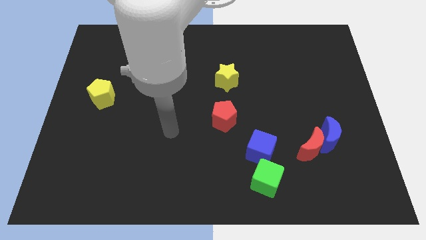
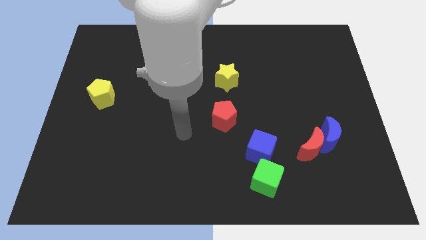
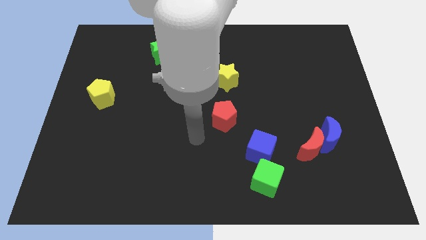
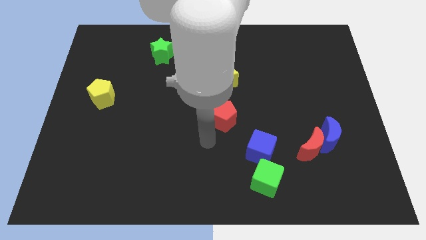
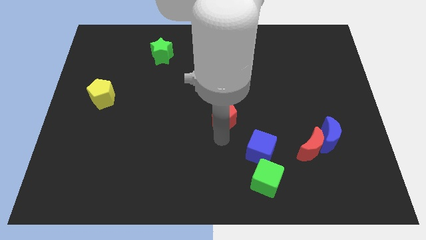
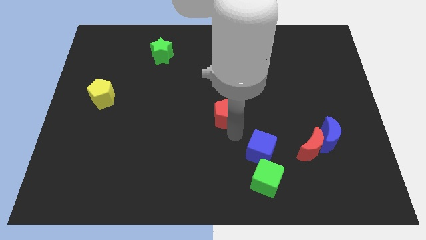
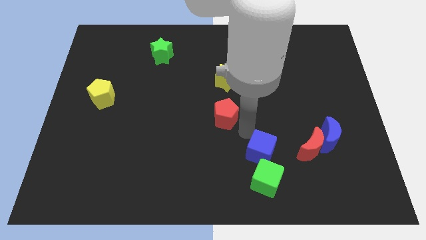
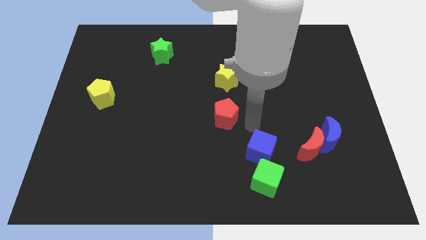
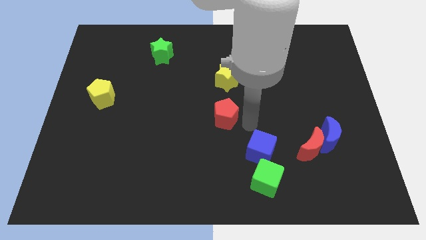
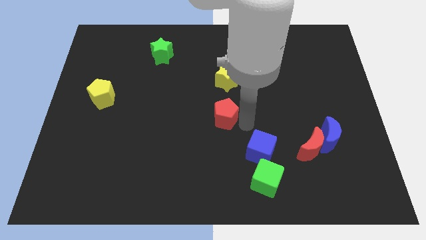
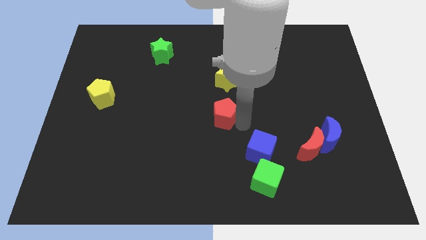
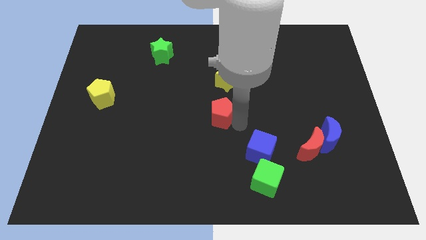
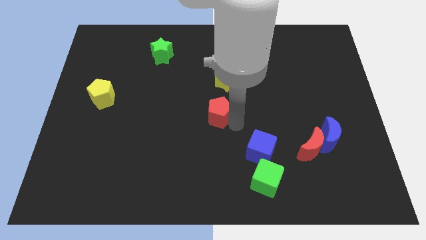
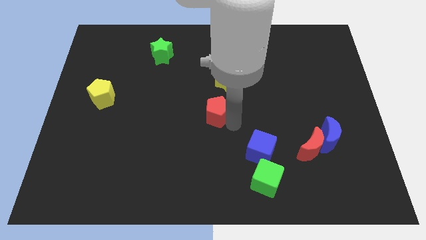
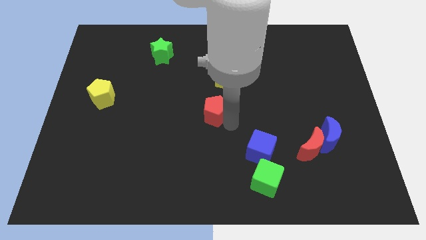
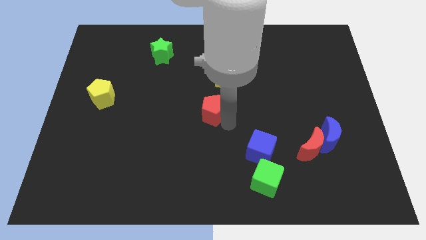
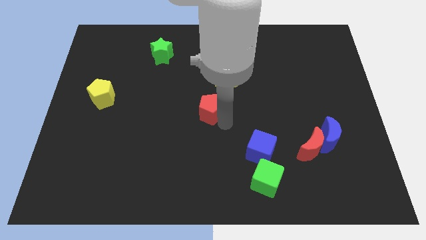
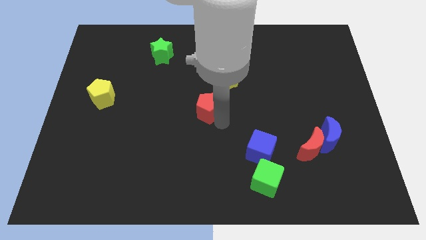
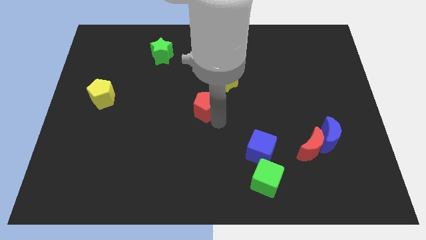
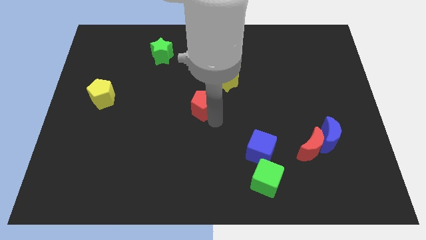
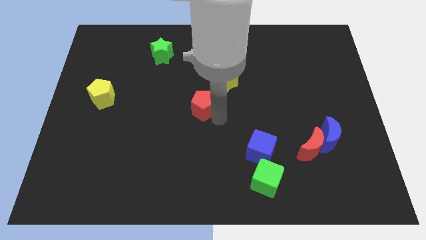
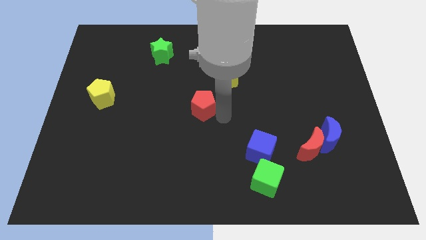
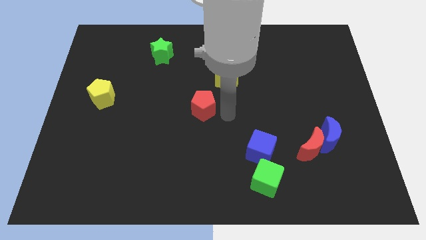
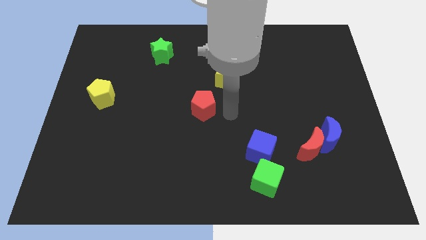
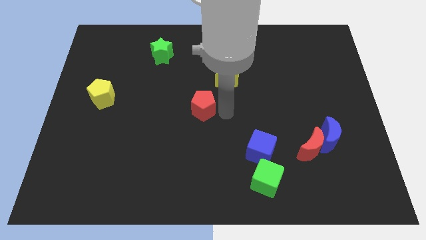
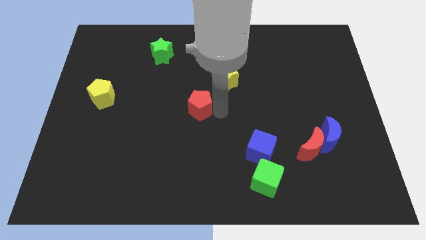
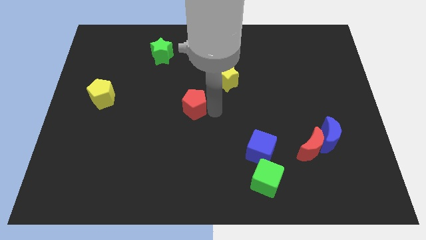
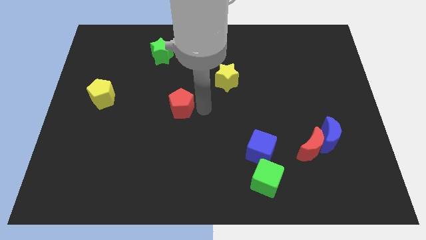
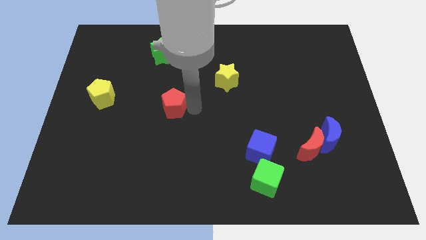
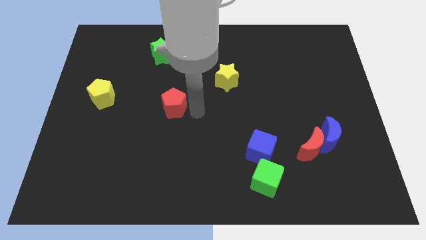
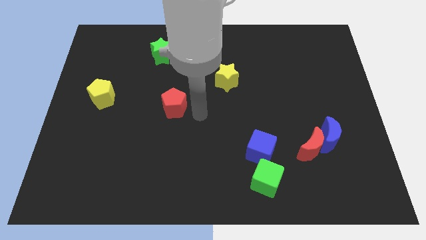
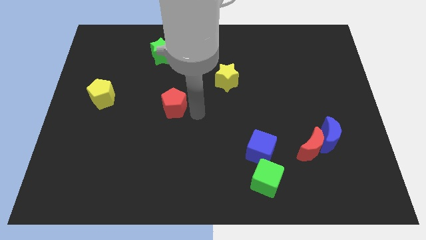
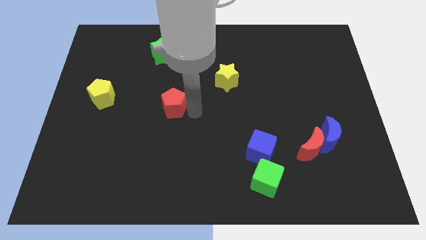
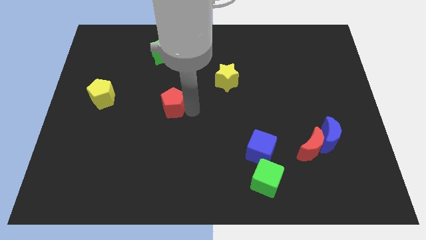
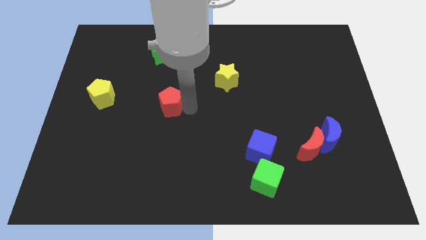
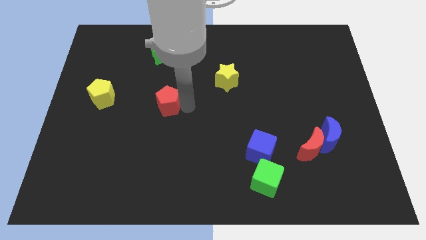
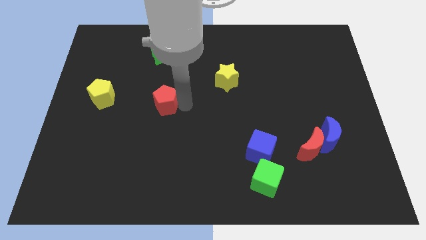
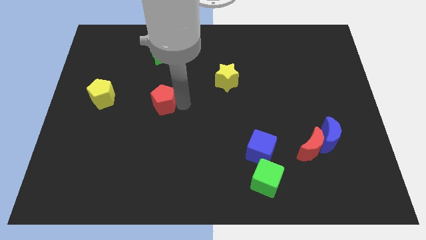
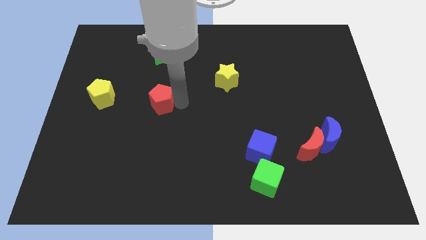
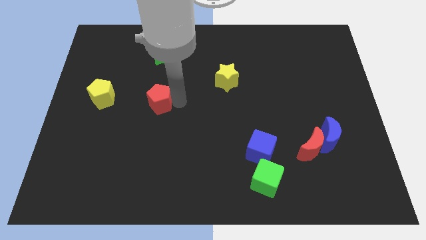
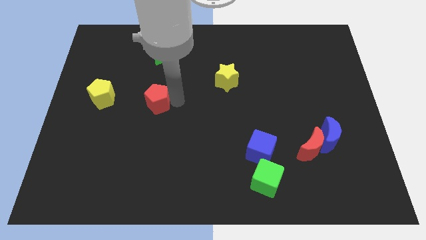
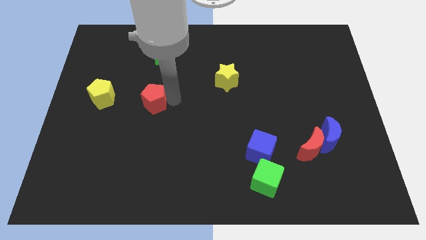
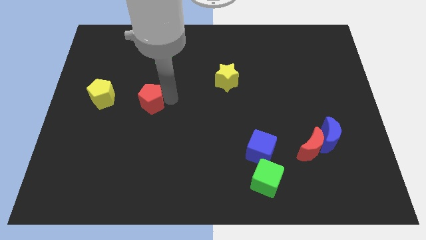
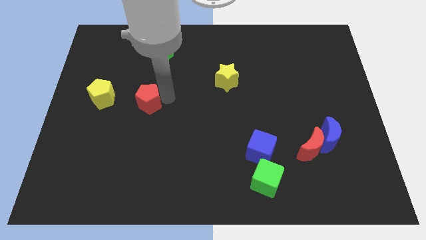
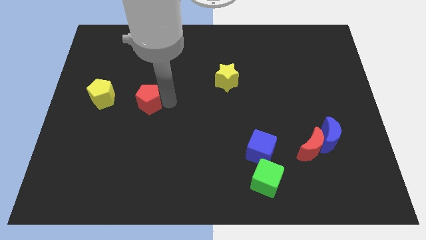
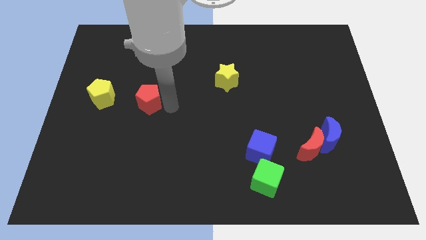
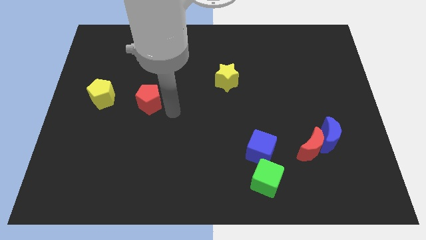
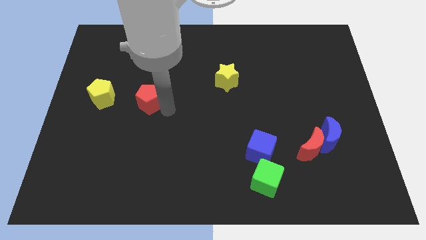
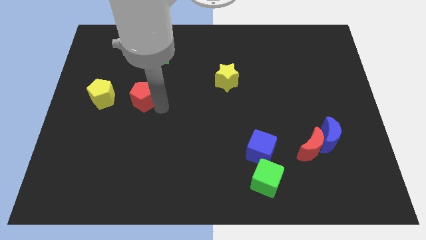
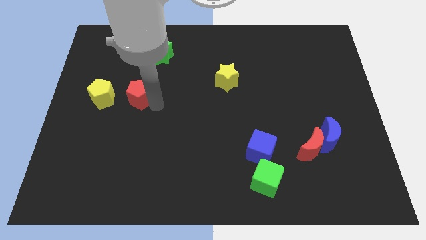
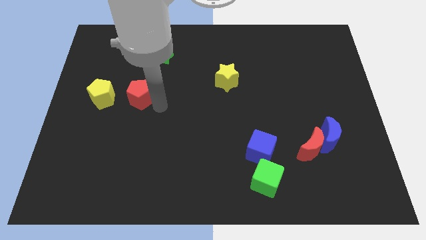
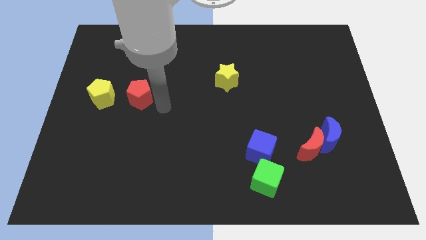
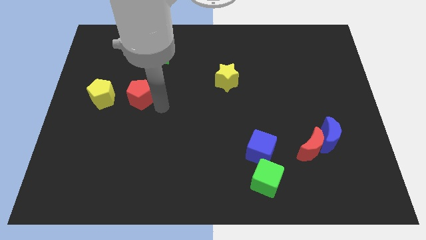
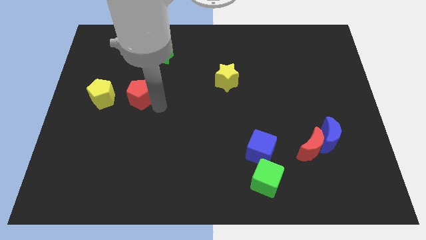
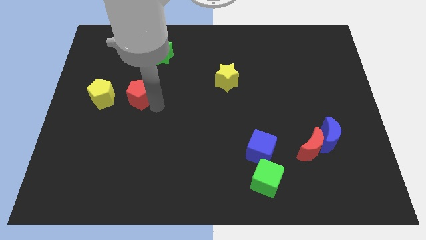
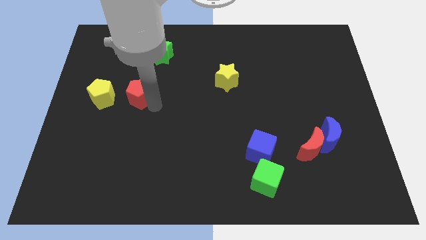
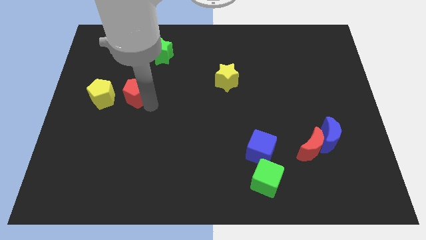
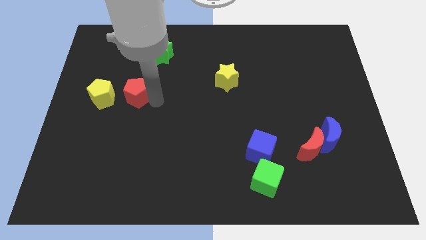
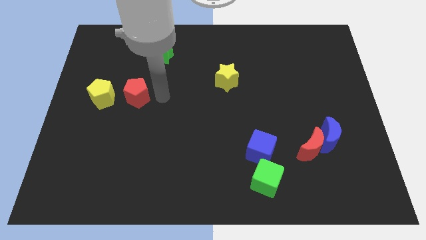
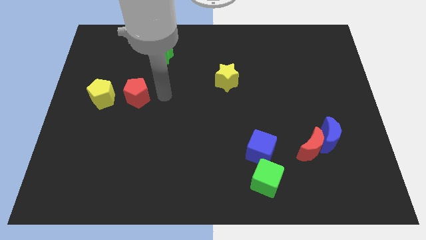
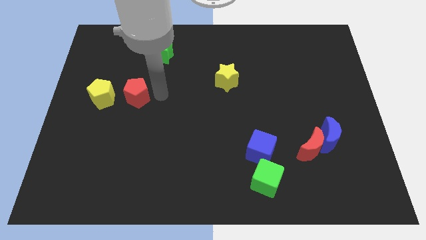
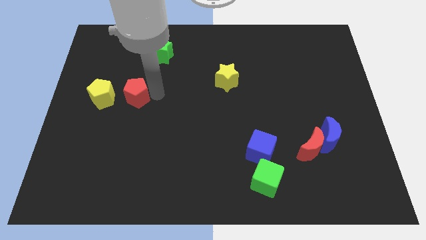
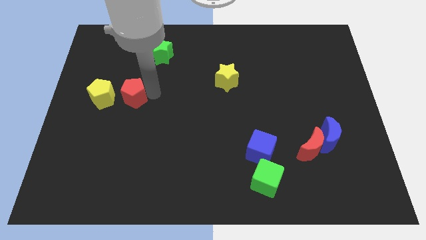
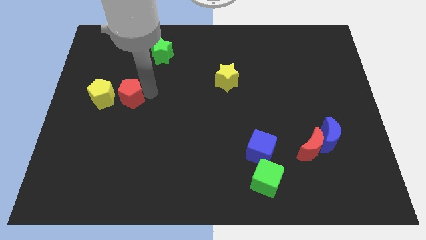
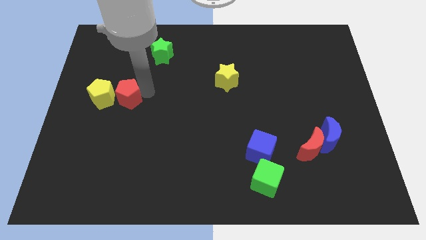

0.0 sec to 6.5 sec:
move the red pentagon close to the yellow pentagon
